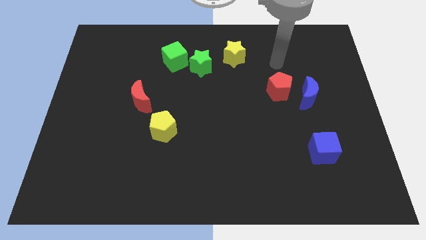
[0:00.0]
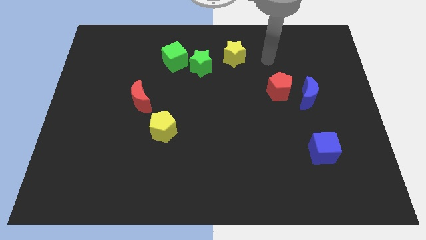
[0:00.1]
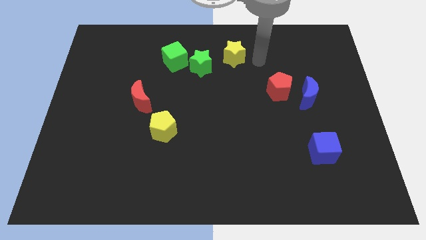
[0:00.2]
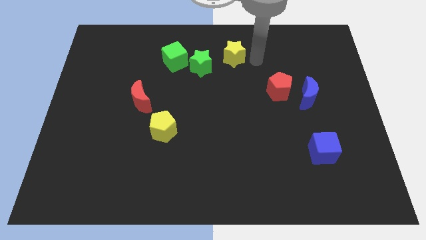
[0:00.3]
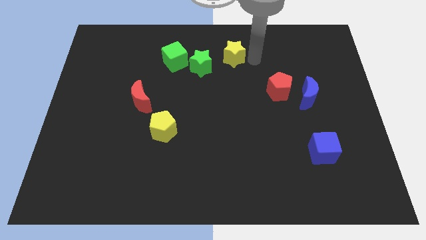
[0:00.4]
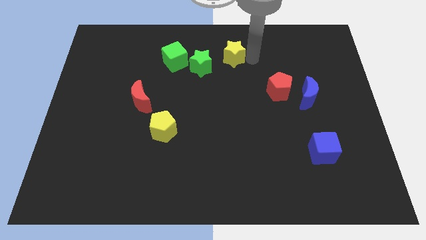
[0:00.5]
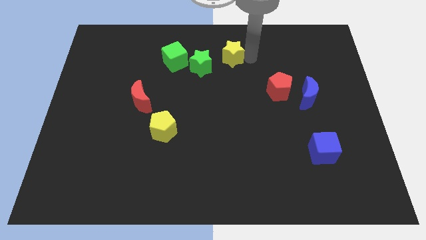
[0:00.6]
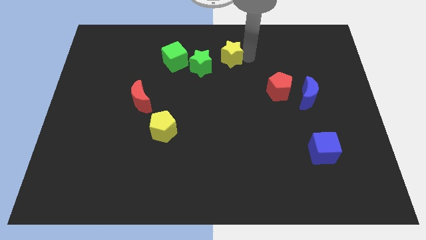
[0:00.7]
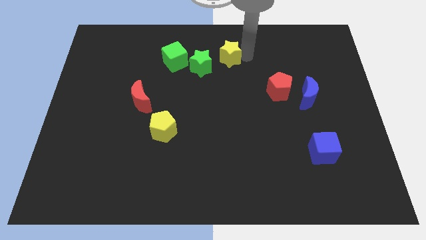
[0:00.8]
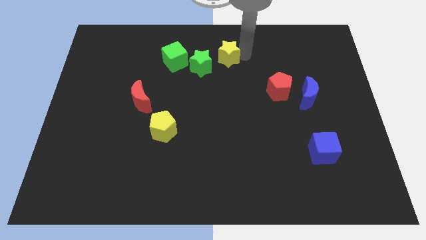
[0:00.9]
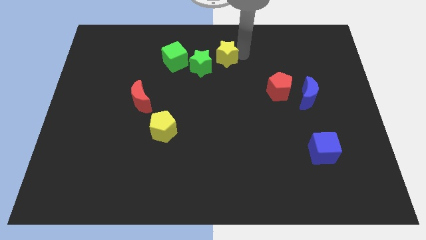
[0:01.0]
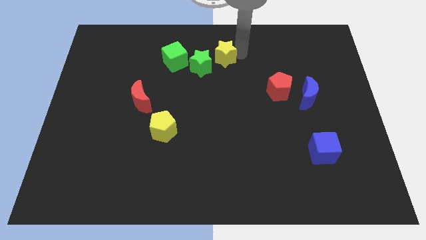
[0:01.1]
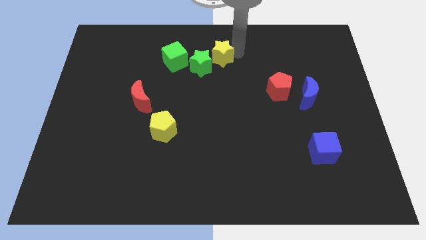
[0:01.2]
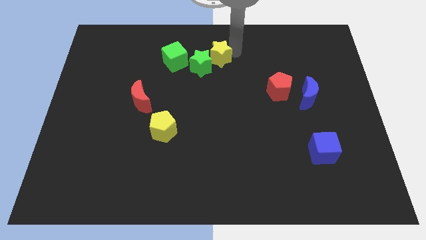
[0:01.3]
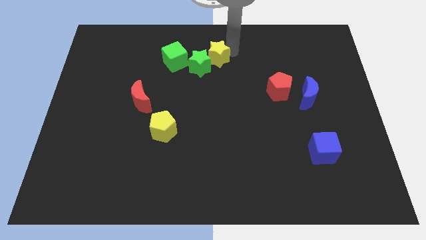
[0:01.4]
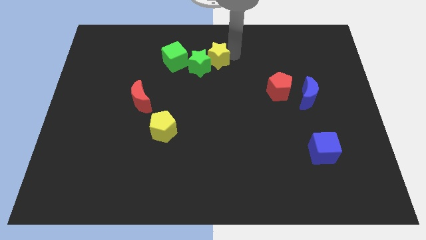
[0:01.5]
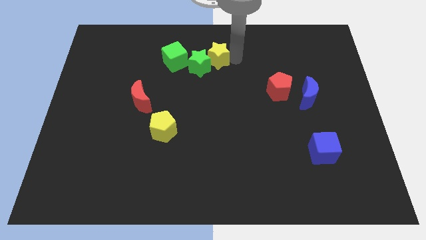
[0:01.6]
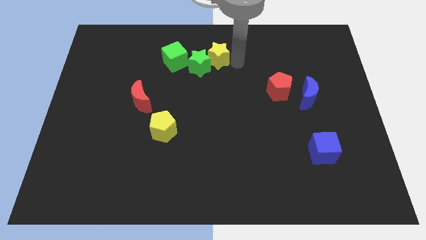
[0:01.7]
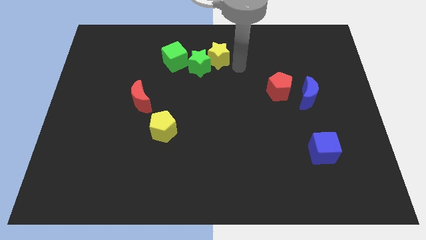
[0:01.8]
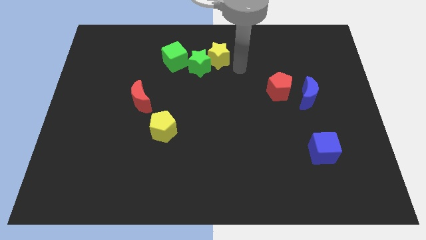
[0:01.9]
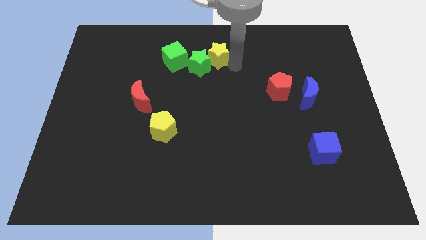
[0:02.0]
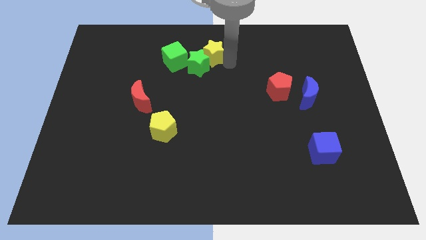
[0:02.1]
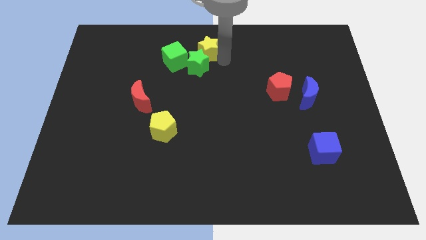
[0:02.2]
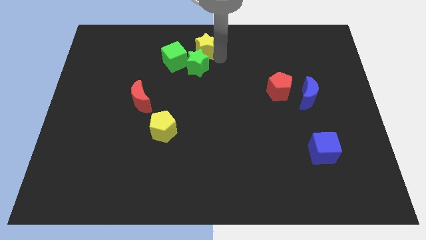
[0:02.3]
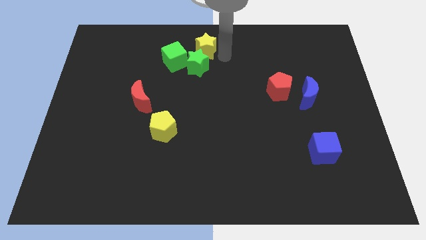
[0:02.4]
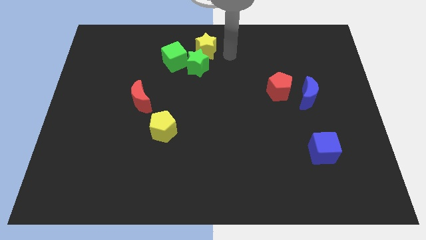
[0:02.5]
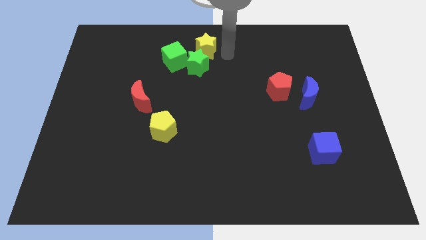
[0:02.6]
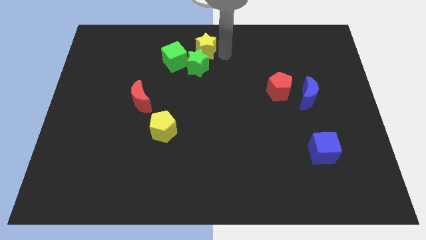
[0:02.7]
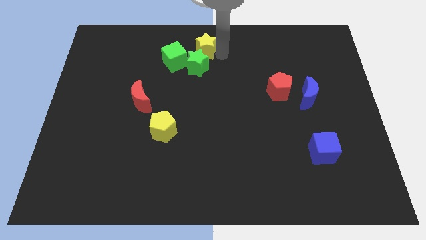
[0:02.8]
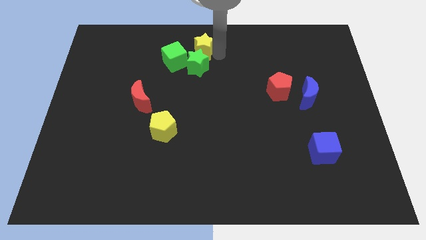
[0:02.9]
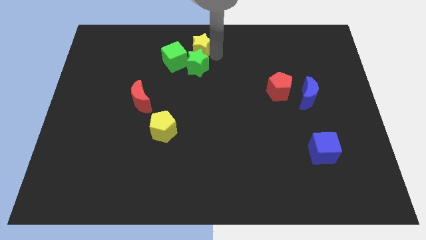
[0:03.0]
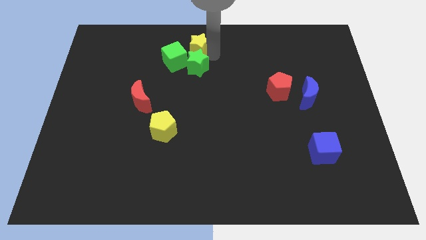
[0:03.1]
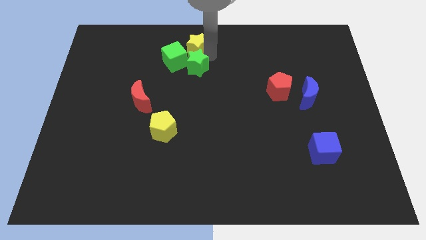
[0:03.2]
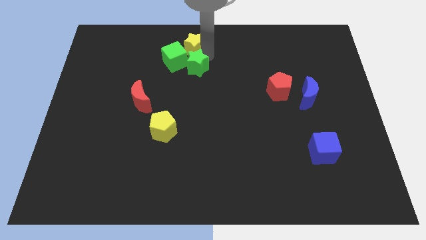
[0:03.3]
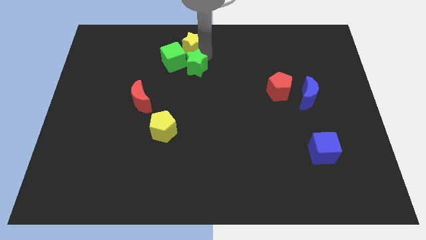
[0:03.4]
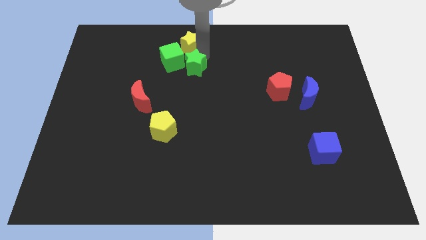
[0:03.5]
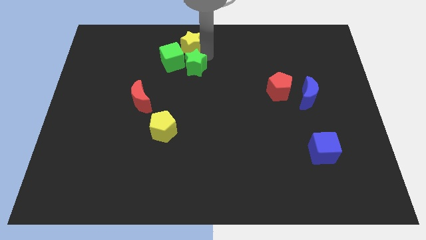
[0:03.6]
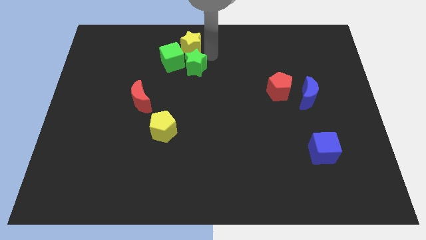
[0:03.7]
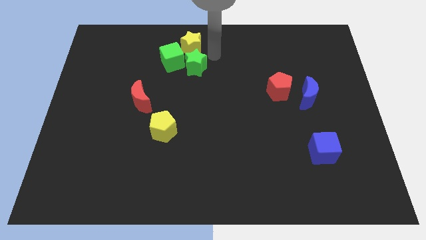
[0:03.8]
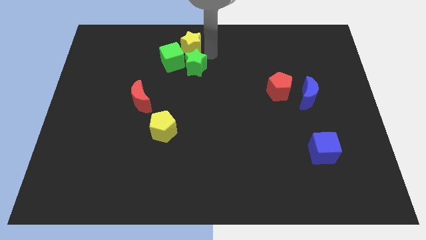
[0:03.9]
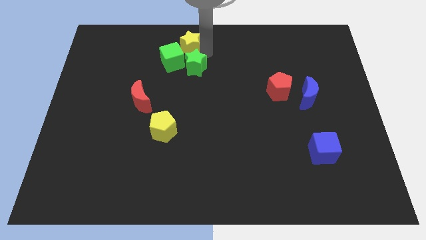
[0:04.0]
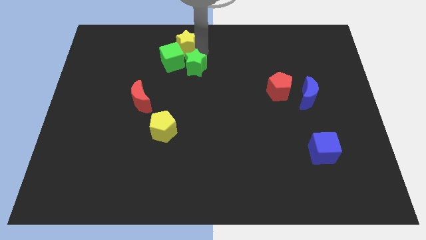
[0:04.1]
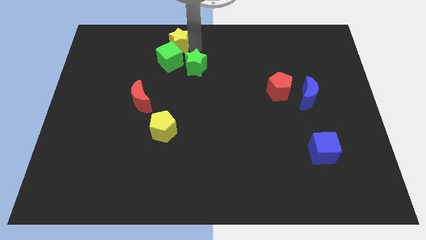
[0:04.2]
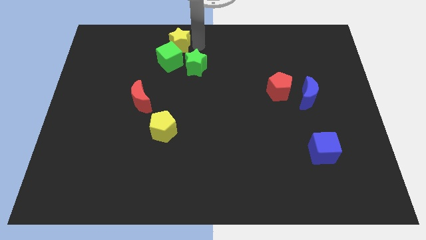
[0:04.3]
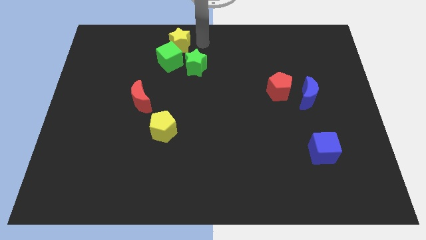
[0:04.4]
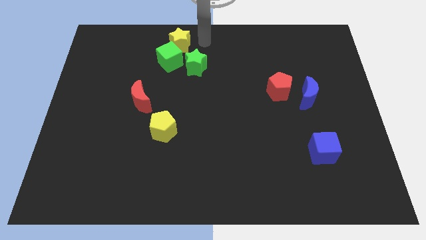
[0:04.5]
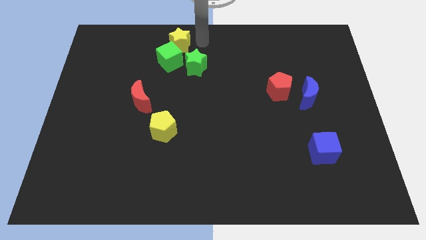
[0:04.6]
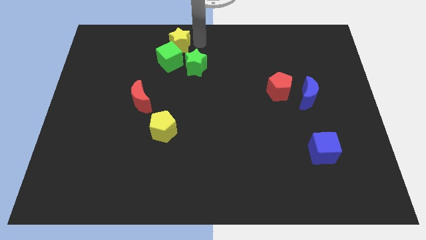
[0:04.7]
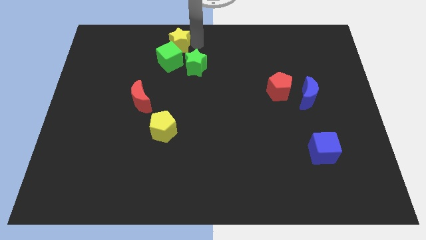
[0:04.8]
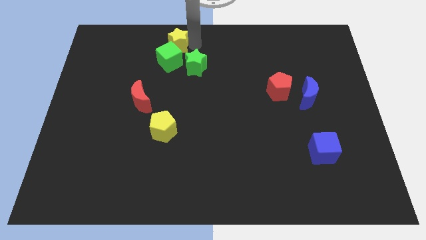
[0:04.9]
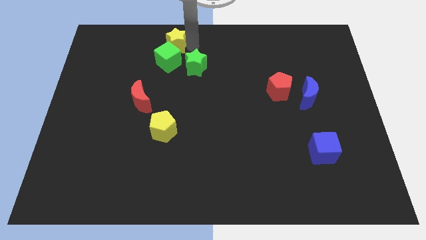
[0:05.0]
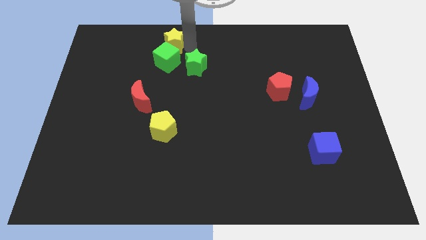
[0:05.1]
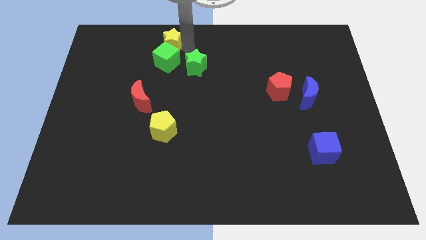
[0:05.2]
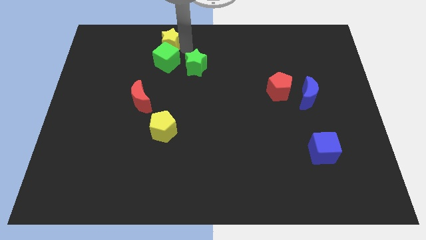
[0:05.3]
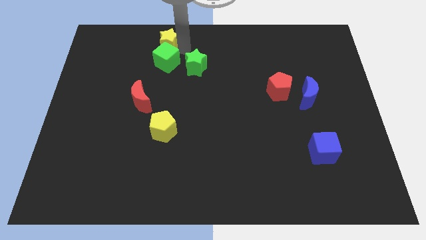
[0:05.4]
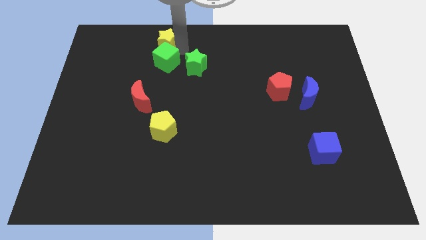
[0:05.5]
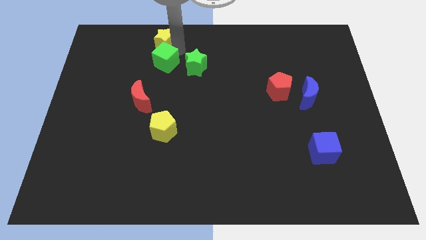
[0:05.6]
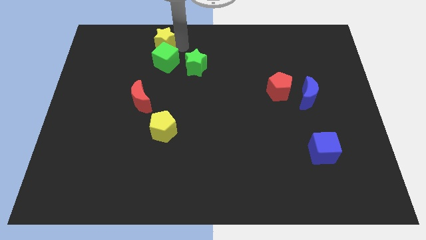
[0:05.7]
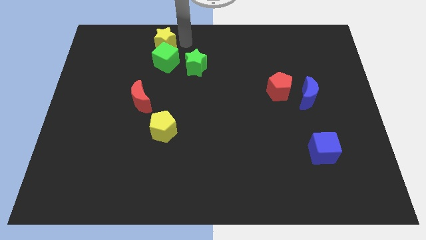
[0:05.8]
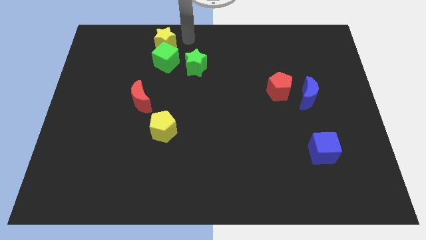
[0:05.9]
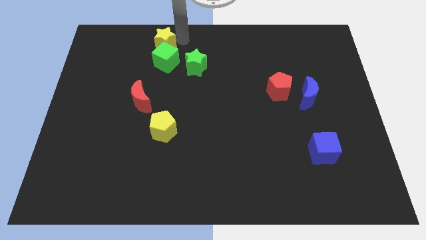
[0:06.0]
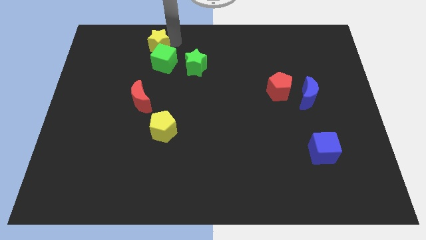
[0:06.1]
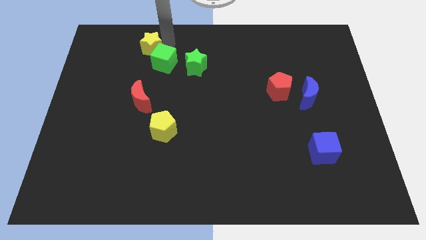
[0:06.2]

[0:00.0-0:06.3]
push the yellow star to the left

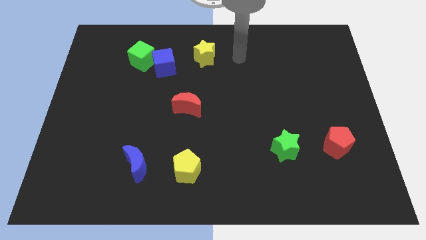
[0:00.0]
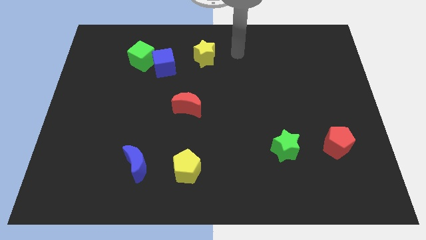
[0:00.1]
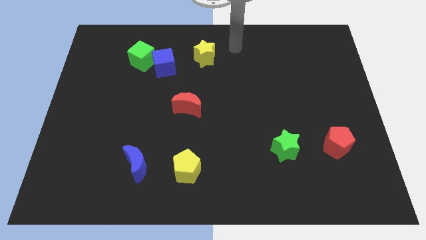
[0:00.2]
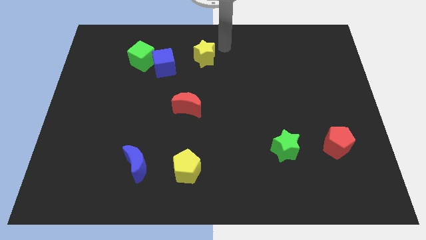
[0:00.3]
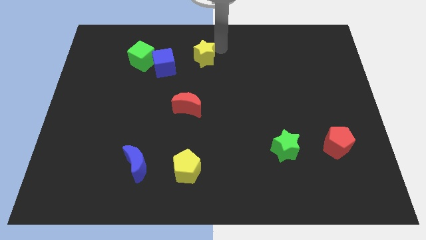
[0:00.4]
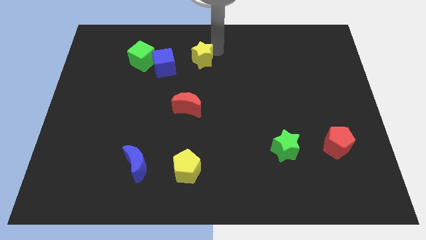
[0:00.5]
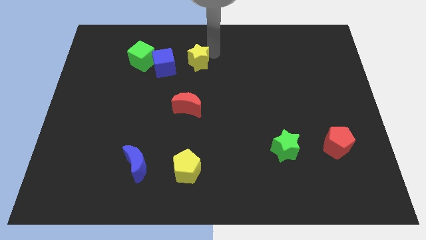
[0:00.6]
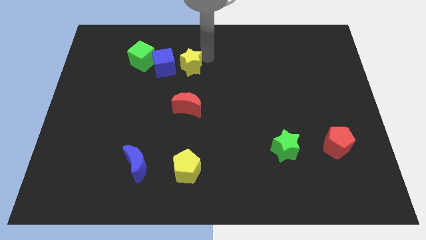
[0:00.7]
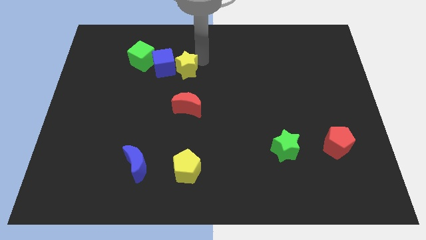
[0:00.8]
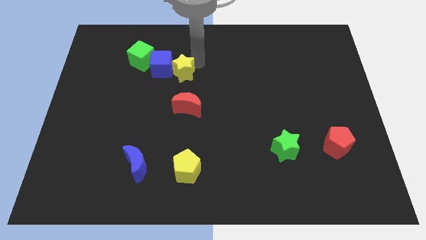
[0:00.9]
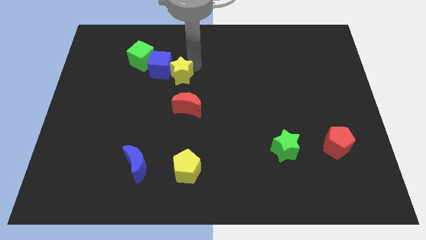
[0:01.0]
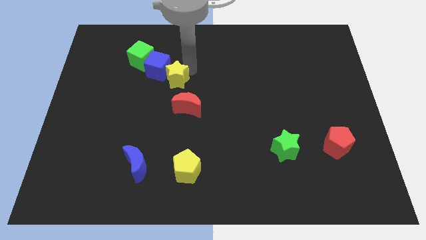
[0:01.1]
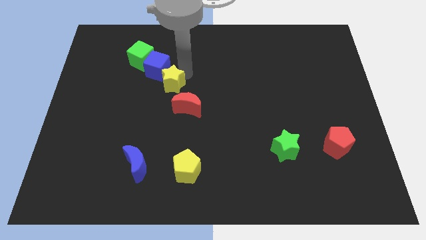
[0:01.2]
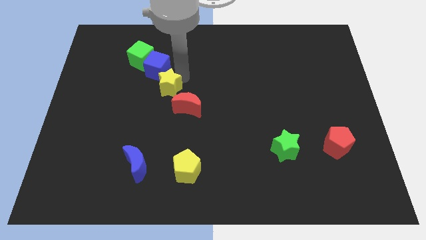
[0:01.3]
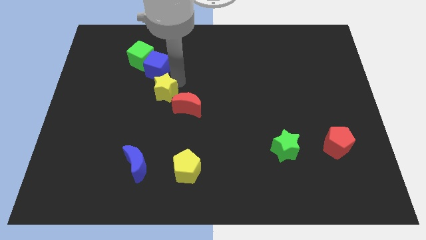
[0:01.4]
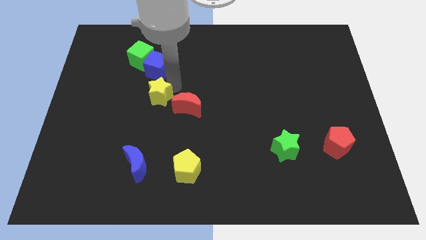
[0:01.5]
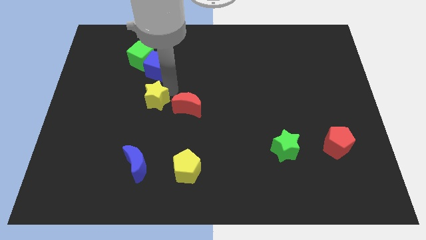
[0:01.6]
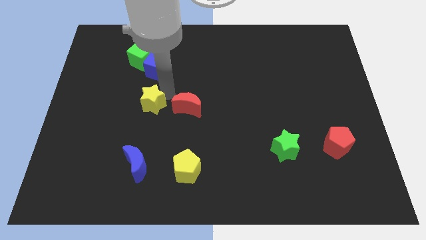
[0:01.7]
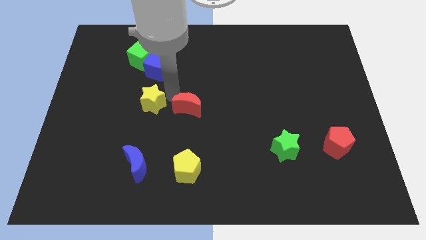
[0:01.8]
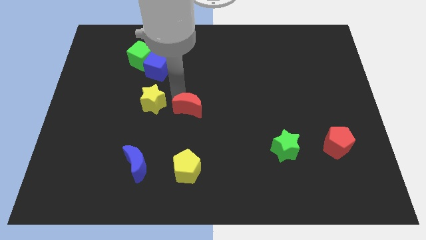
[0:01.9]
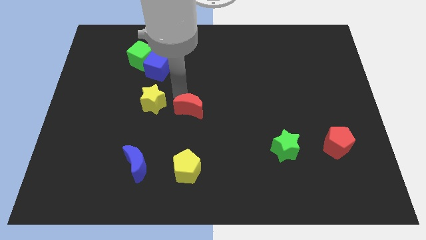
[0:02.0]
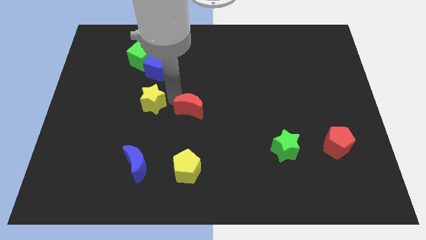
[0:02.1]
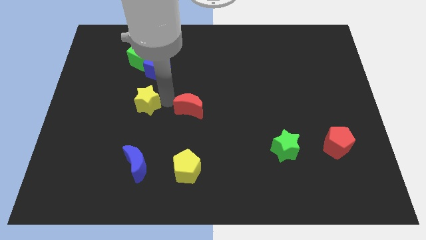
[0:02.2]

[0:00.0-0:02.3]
slide the yellow star downwards and to the left diagonally
